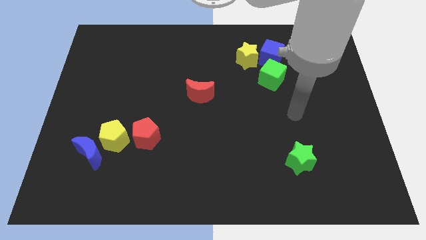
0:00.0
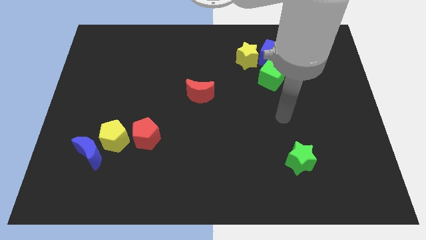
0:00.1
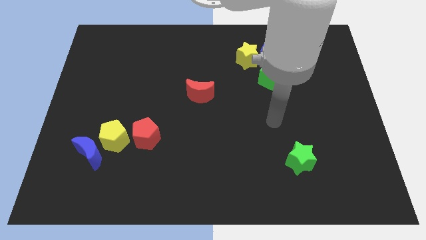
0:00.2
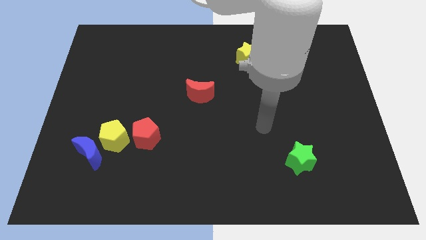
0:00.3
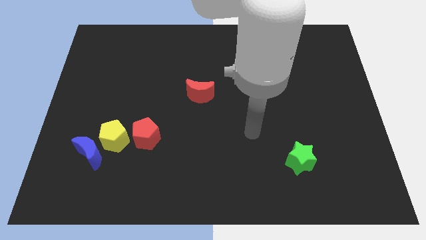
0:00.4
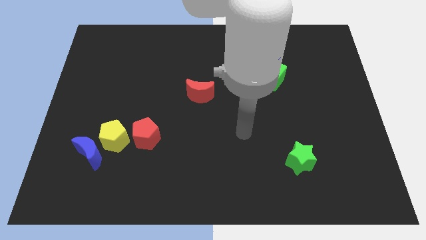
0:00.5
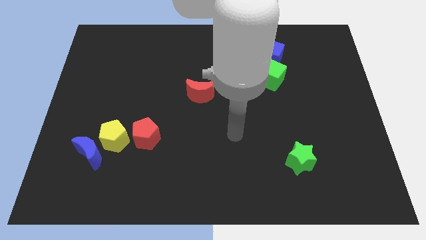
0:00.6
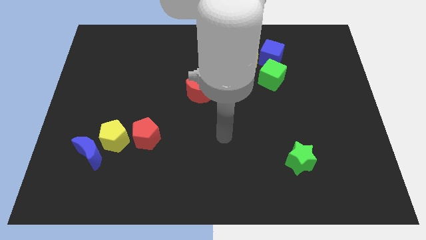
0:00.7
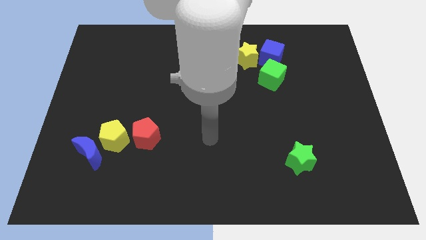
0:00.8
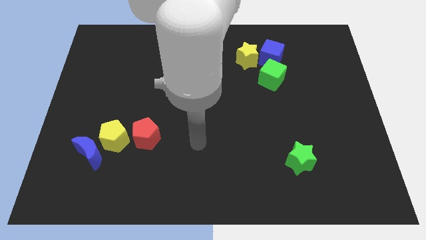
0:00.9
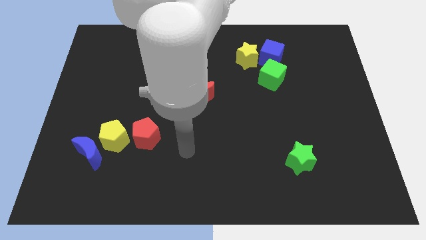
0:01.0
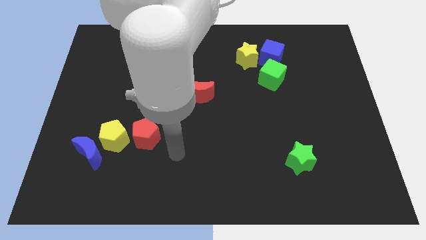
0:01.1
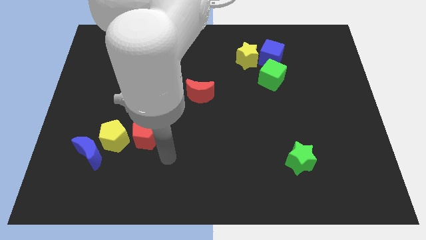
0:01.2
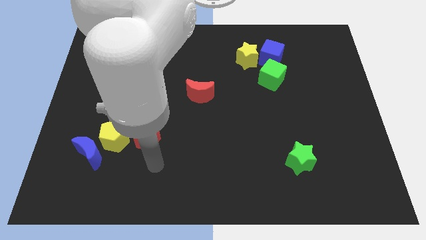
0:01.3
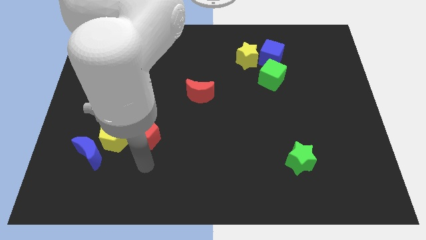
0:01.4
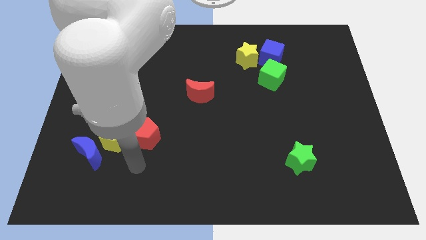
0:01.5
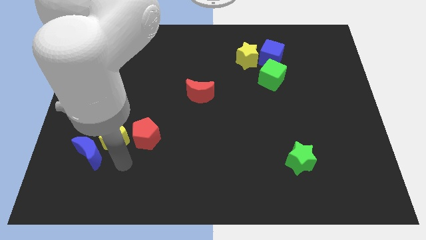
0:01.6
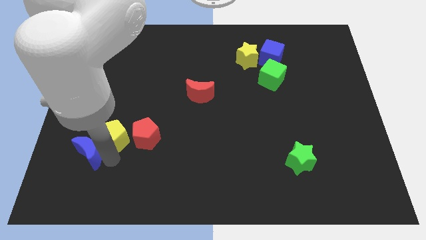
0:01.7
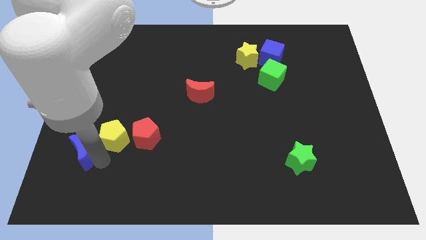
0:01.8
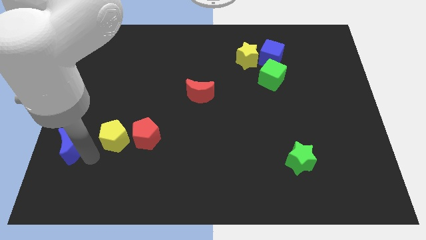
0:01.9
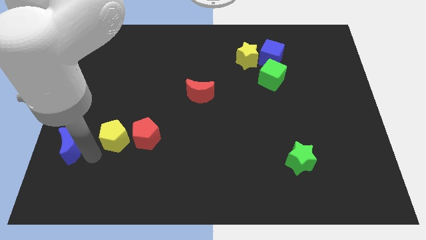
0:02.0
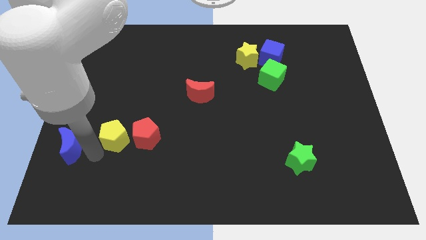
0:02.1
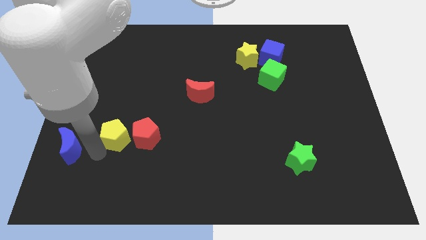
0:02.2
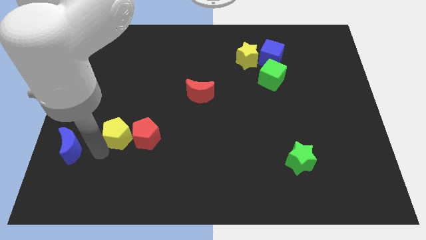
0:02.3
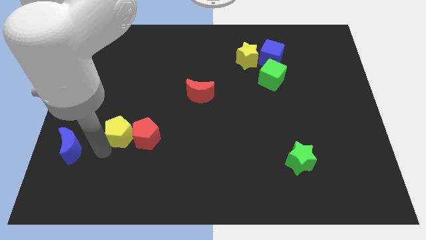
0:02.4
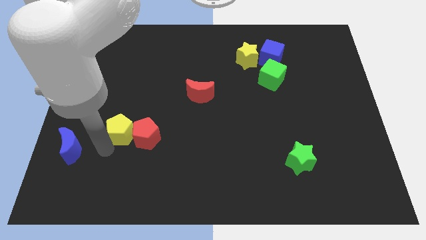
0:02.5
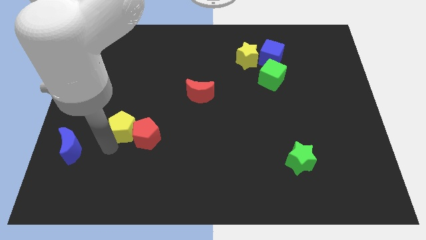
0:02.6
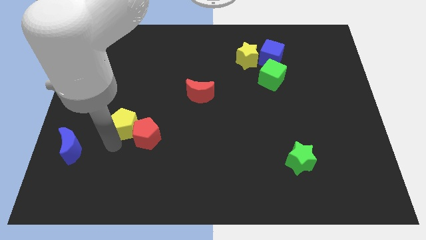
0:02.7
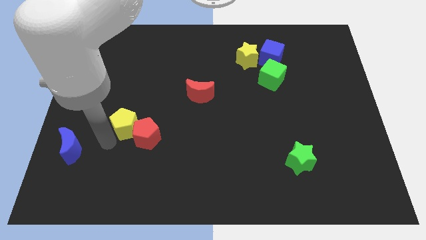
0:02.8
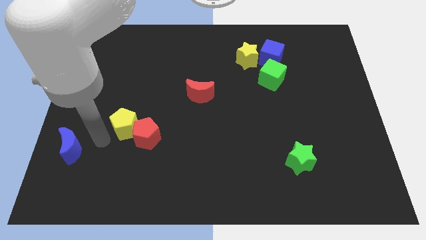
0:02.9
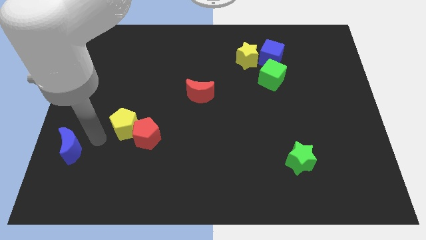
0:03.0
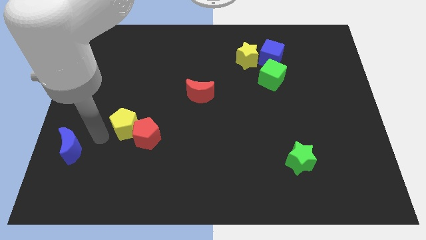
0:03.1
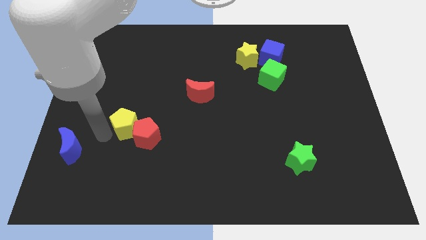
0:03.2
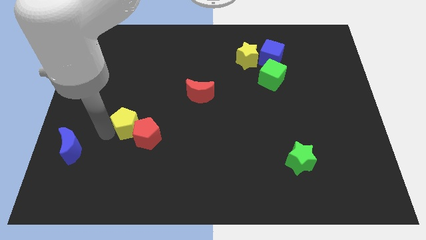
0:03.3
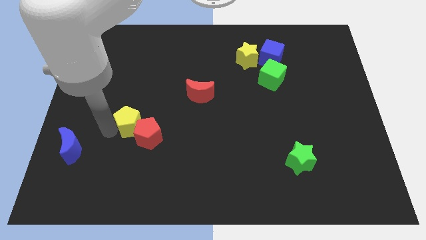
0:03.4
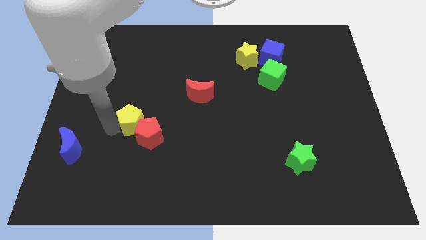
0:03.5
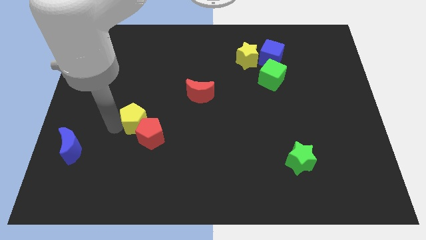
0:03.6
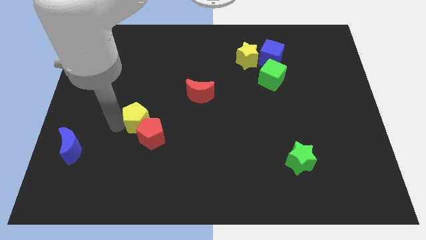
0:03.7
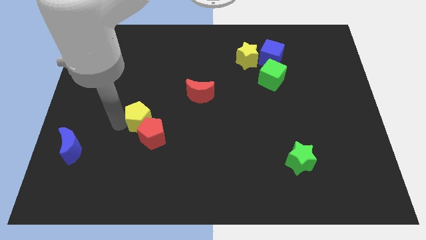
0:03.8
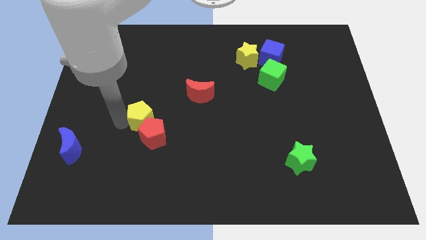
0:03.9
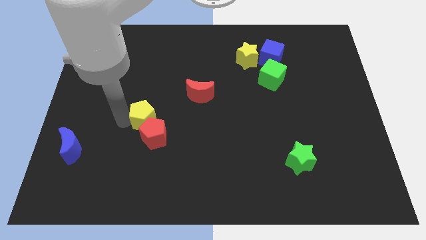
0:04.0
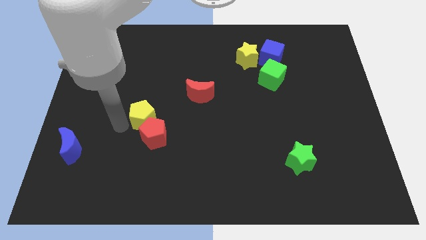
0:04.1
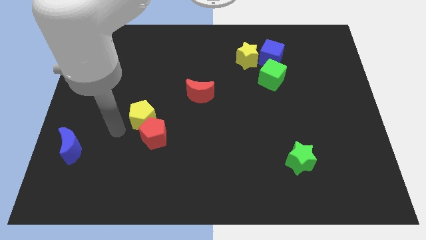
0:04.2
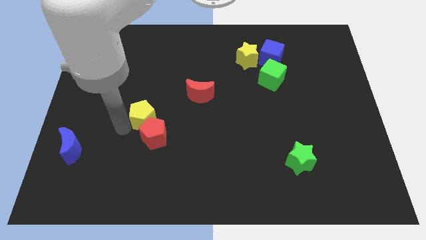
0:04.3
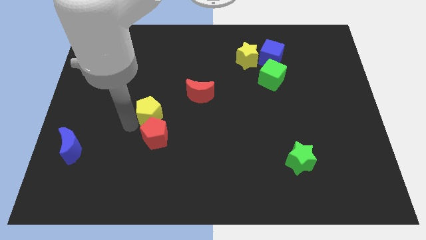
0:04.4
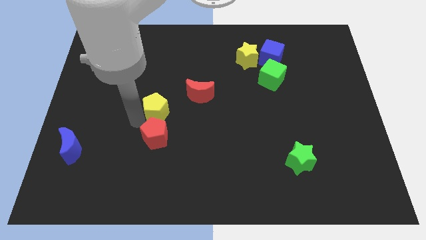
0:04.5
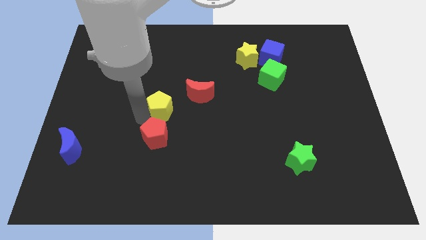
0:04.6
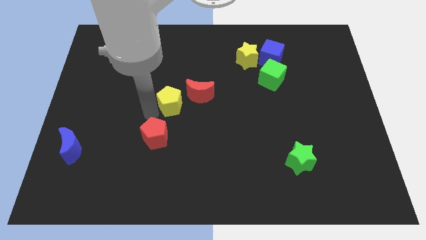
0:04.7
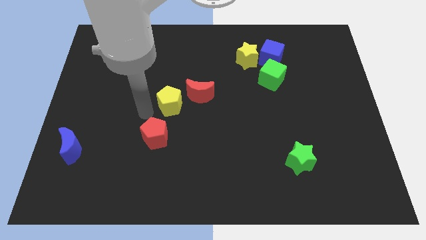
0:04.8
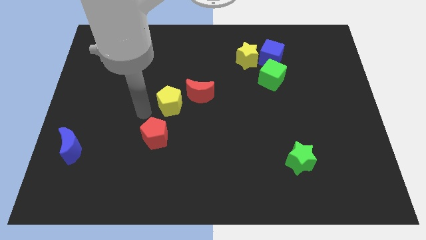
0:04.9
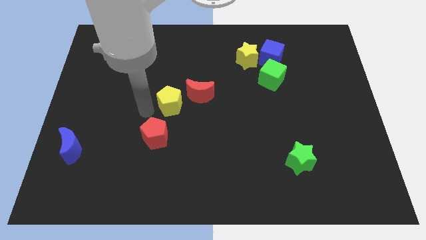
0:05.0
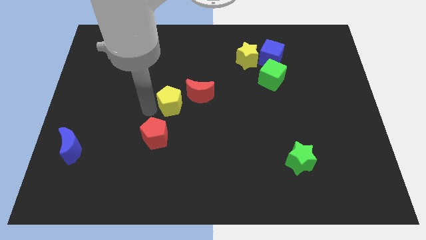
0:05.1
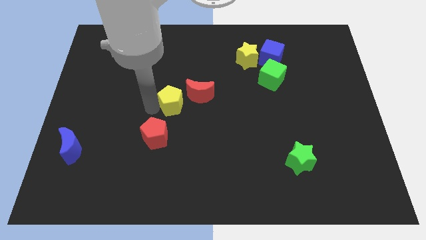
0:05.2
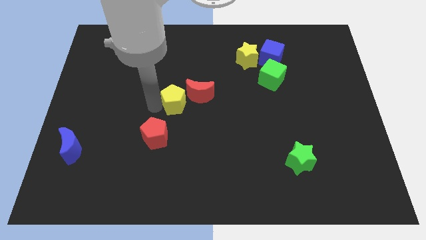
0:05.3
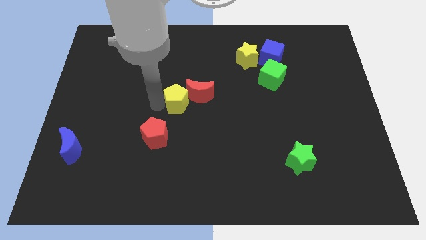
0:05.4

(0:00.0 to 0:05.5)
slide the yellow pentagon towards the red moon

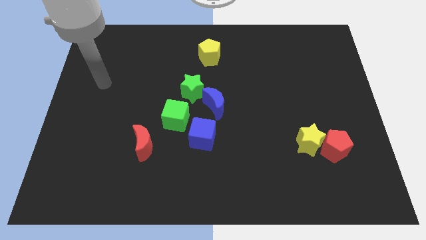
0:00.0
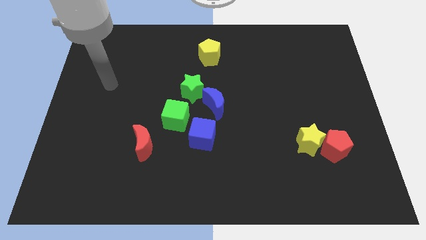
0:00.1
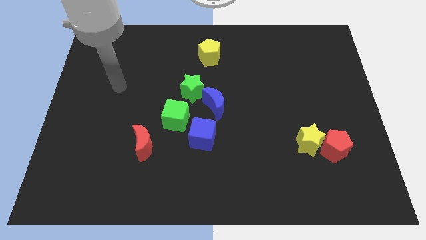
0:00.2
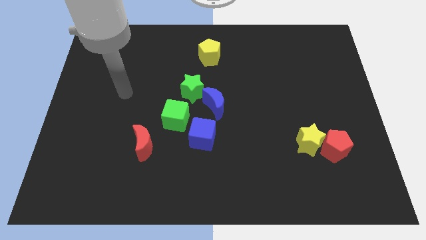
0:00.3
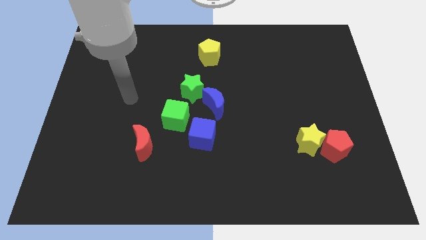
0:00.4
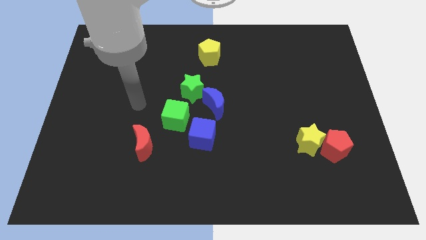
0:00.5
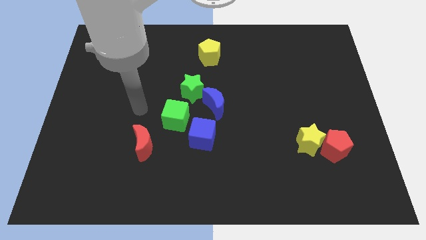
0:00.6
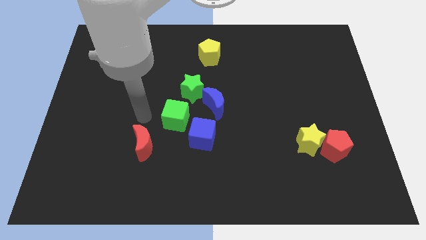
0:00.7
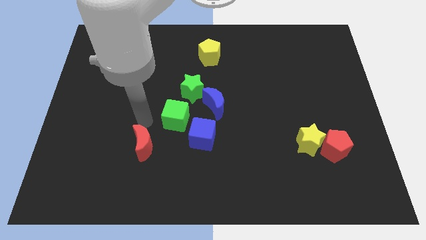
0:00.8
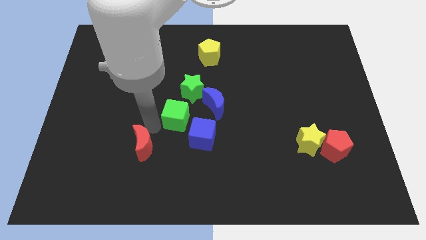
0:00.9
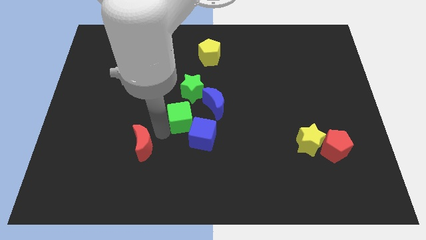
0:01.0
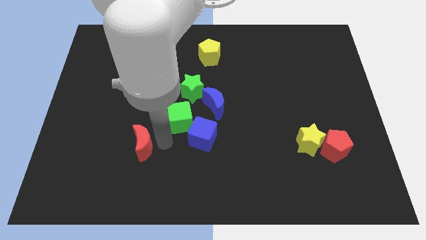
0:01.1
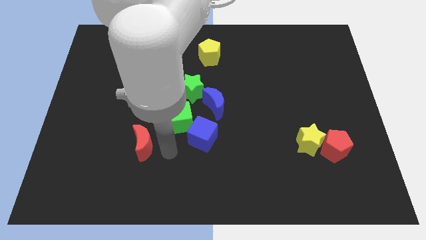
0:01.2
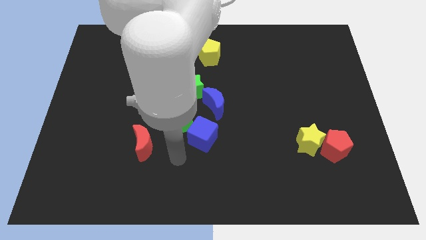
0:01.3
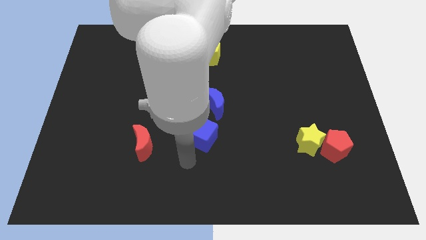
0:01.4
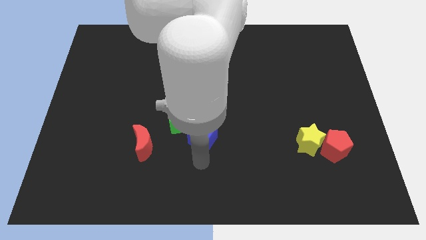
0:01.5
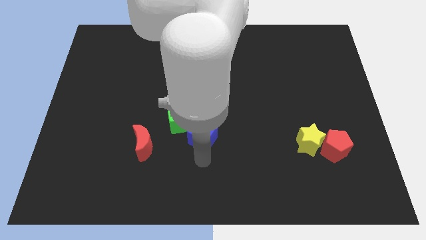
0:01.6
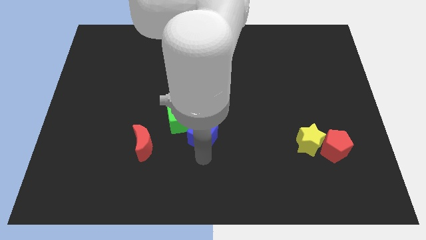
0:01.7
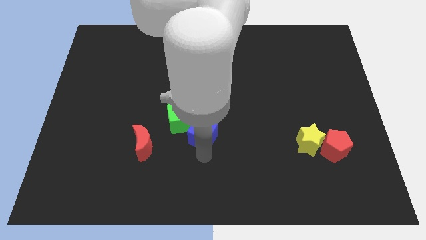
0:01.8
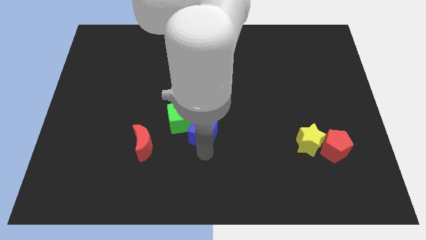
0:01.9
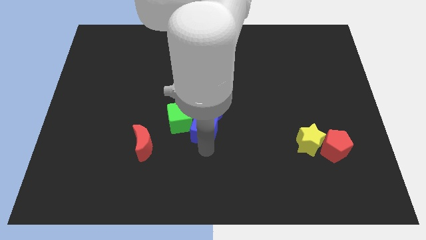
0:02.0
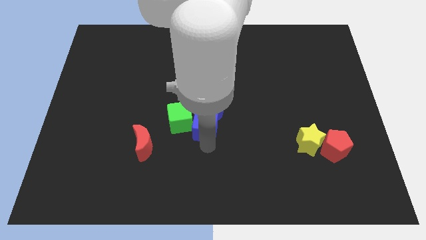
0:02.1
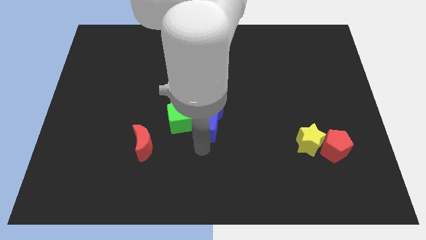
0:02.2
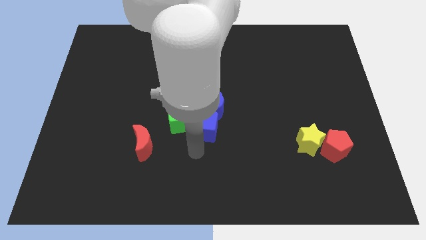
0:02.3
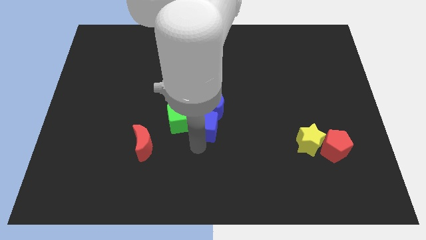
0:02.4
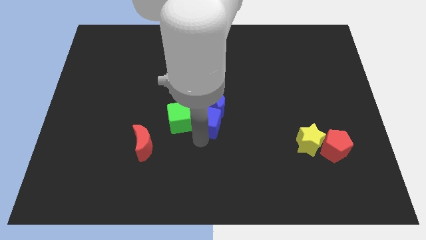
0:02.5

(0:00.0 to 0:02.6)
push the blue cube towards the blue moon
